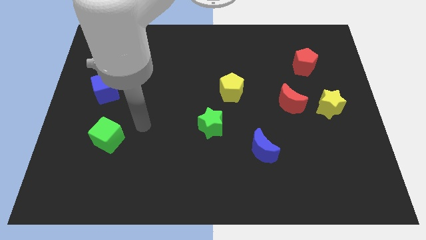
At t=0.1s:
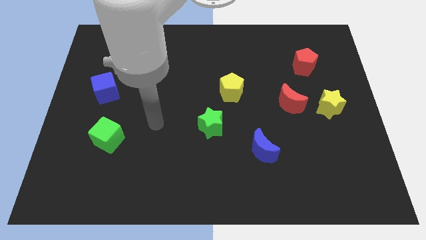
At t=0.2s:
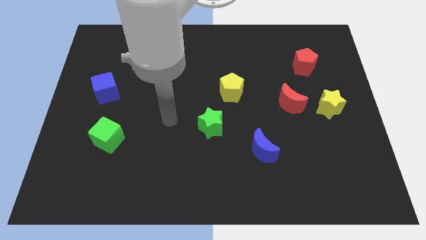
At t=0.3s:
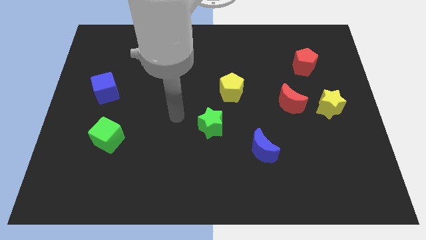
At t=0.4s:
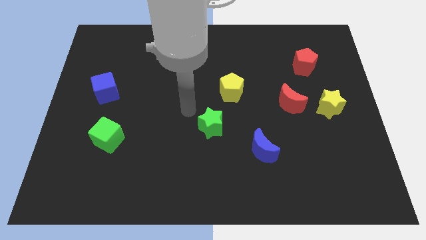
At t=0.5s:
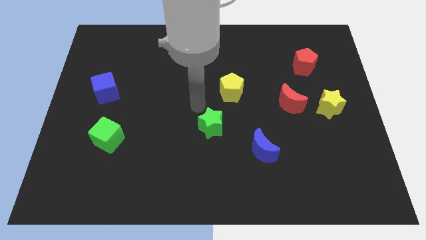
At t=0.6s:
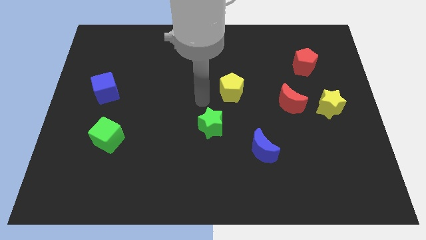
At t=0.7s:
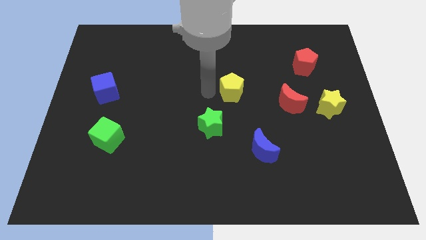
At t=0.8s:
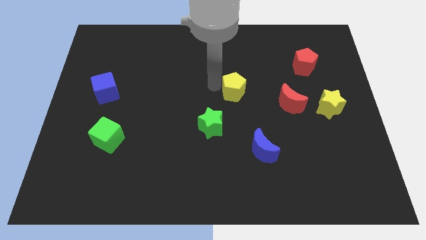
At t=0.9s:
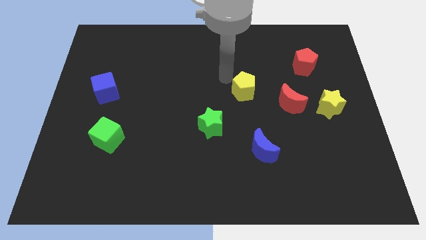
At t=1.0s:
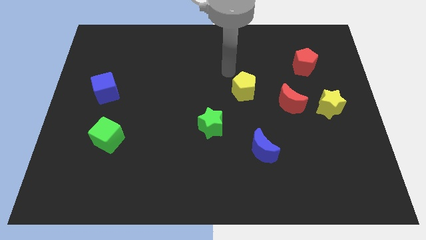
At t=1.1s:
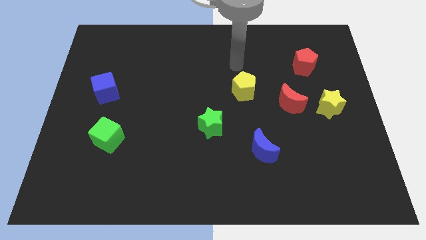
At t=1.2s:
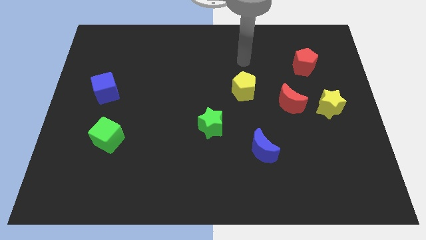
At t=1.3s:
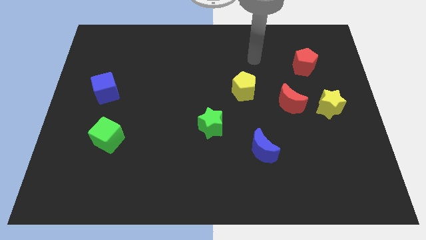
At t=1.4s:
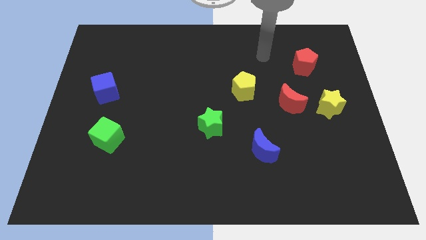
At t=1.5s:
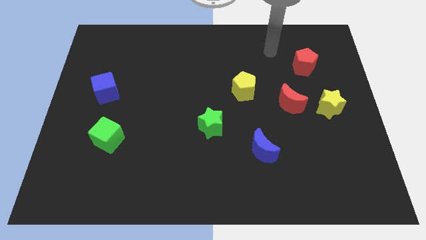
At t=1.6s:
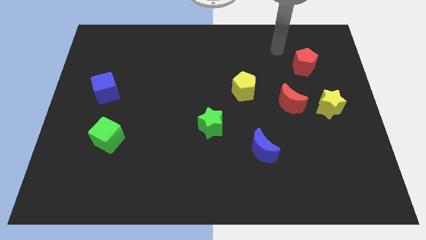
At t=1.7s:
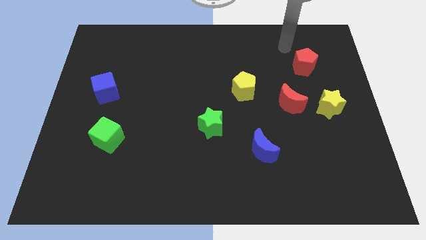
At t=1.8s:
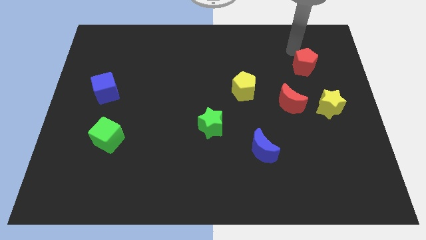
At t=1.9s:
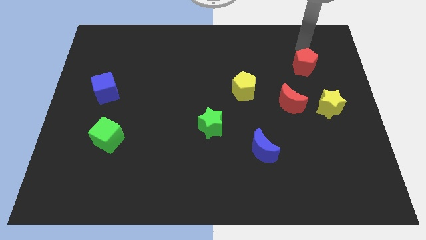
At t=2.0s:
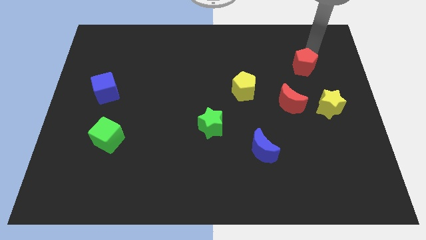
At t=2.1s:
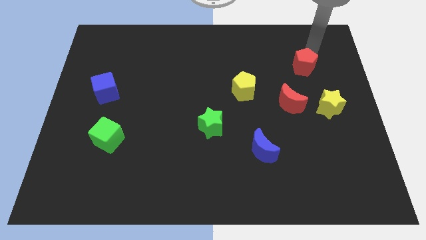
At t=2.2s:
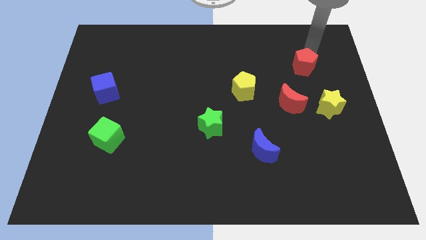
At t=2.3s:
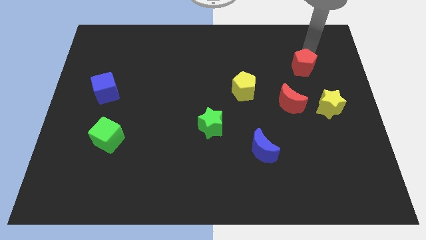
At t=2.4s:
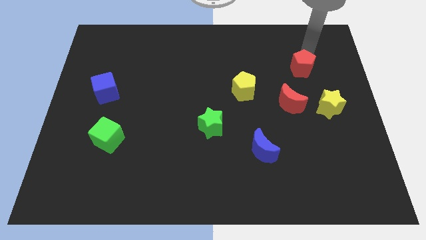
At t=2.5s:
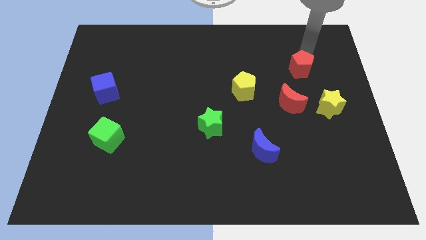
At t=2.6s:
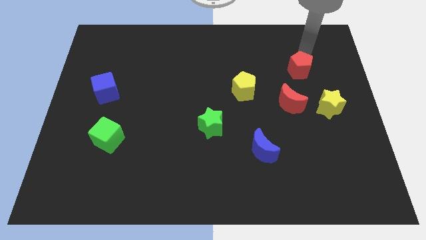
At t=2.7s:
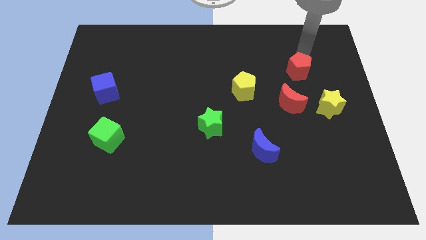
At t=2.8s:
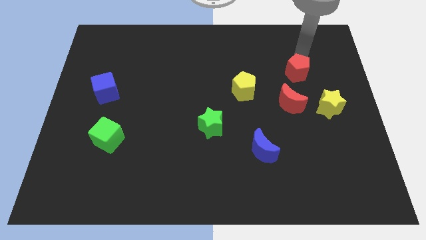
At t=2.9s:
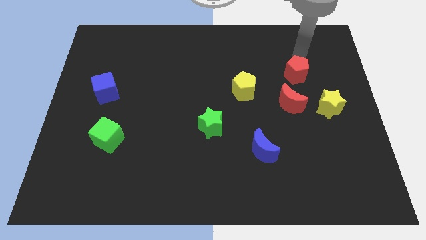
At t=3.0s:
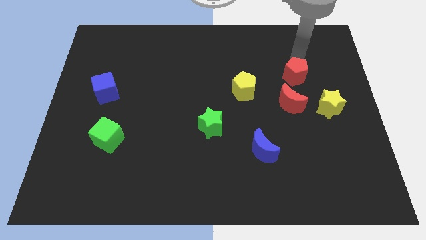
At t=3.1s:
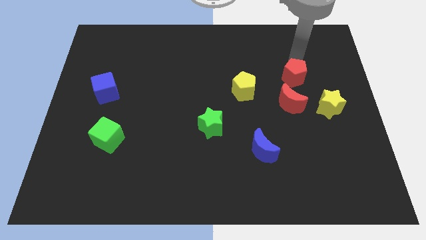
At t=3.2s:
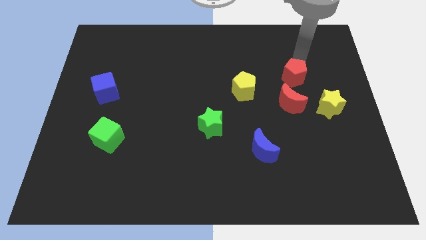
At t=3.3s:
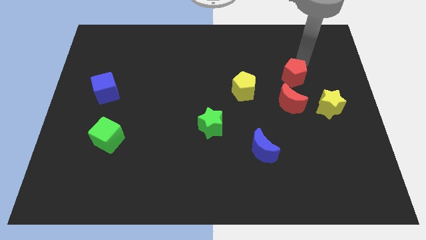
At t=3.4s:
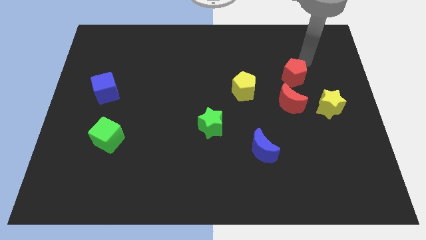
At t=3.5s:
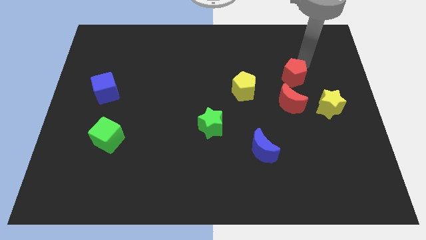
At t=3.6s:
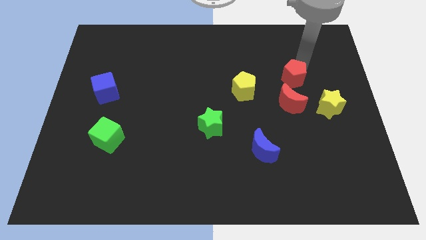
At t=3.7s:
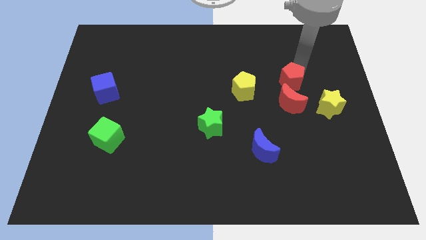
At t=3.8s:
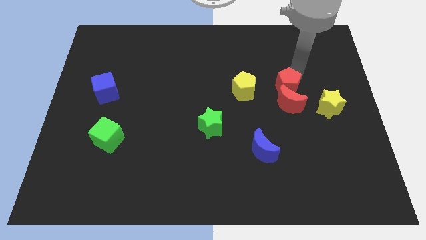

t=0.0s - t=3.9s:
slide the red pentagon a little bit down and then left

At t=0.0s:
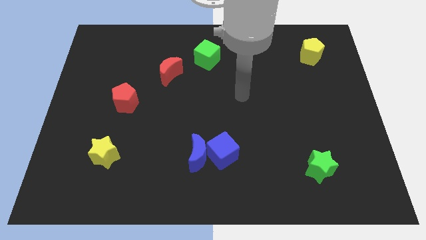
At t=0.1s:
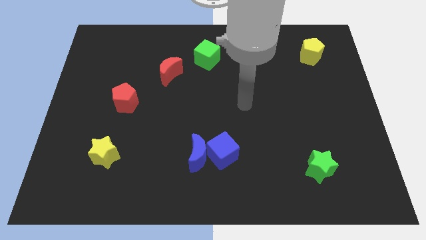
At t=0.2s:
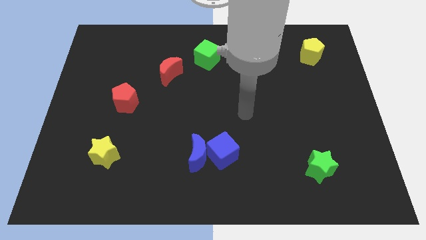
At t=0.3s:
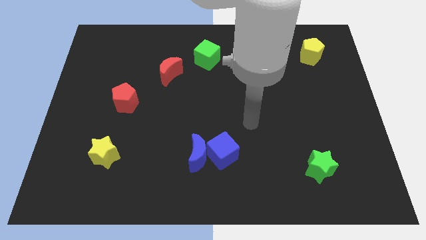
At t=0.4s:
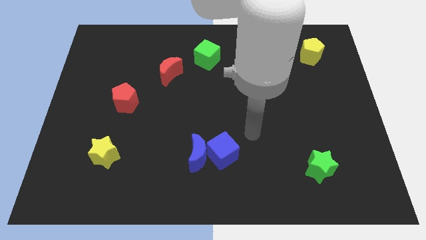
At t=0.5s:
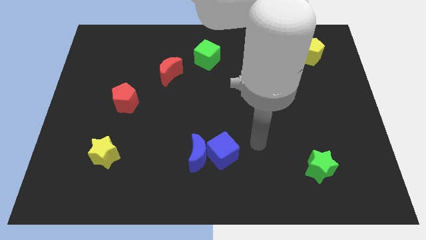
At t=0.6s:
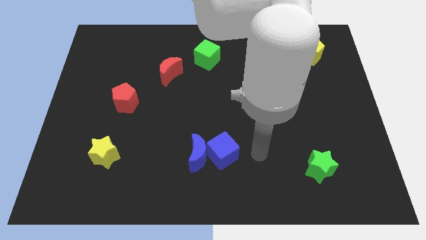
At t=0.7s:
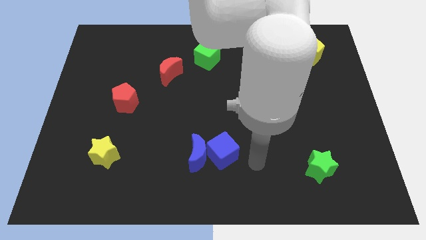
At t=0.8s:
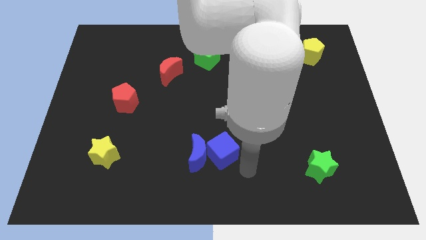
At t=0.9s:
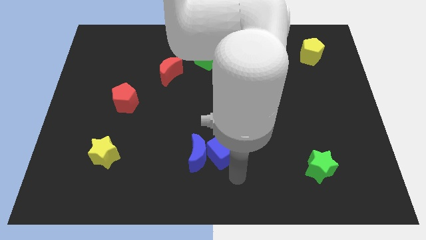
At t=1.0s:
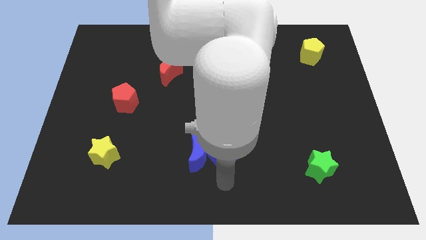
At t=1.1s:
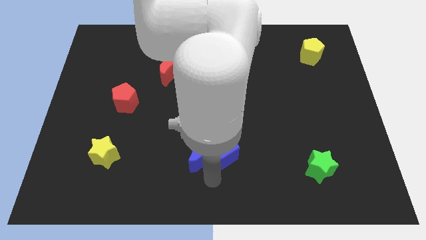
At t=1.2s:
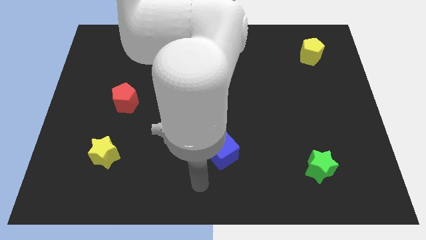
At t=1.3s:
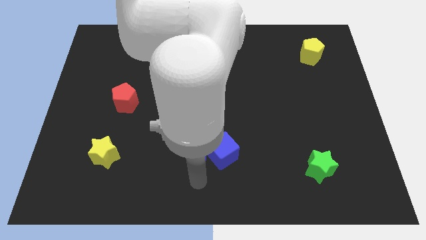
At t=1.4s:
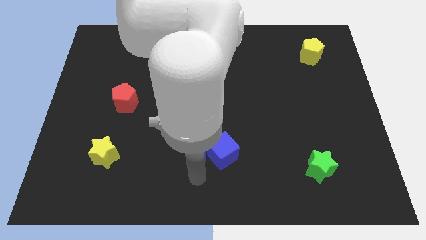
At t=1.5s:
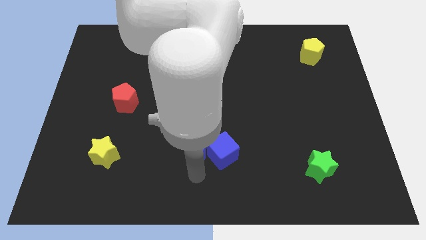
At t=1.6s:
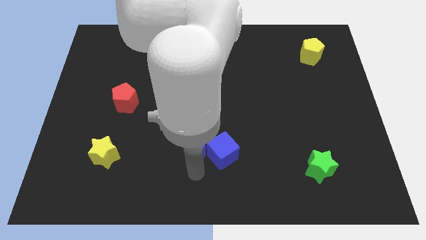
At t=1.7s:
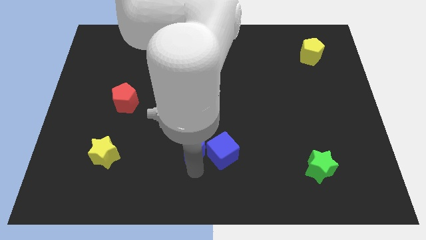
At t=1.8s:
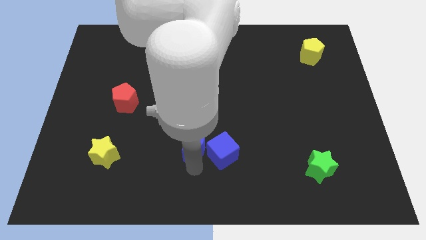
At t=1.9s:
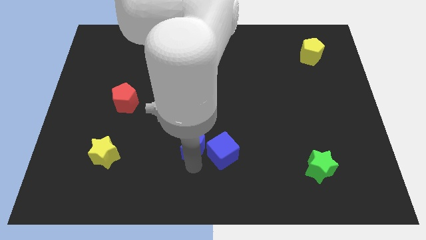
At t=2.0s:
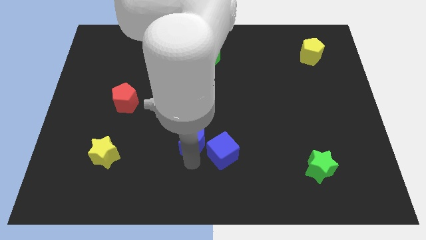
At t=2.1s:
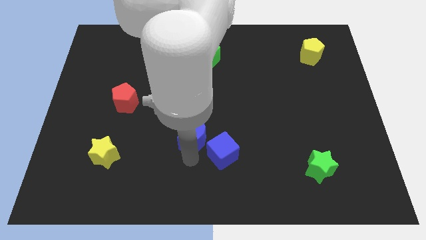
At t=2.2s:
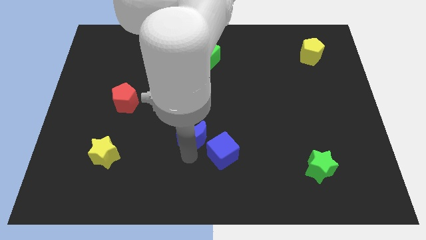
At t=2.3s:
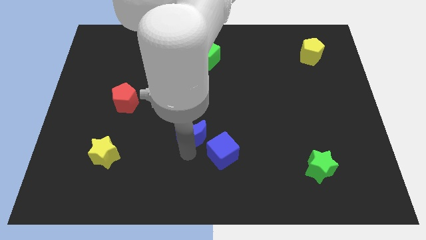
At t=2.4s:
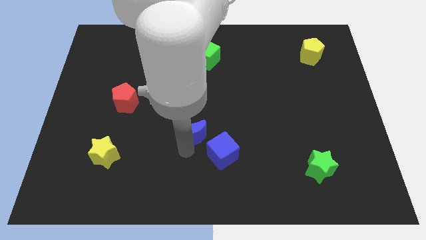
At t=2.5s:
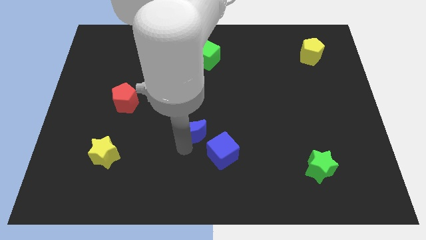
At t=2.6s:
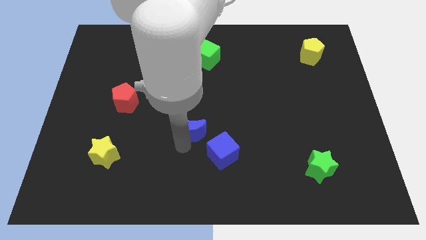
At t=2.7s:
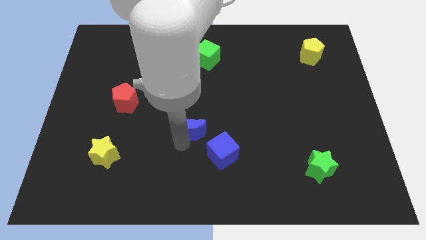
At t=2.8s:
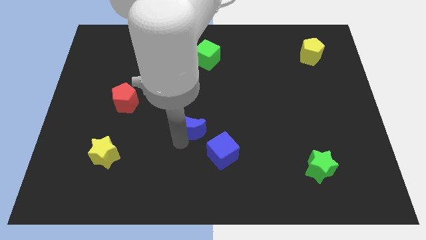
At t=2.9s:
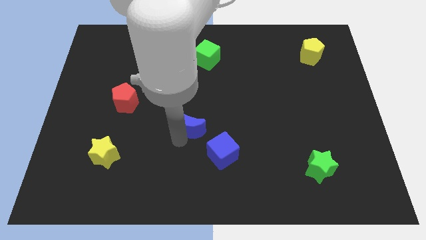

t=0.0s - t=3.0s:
slightly slide the blue moon upwards

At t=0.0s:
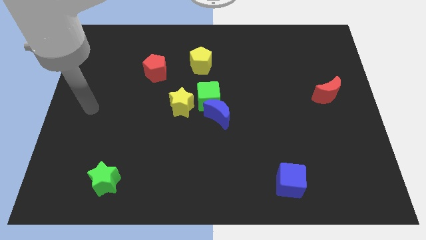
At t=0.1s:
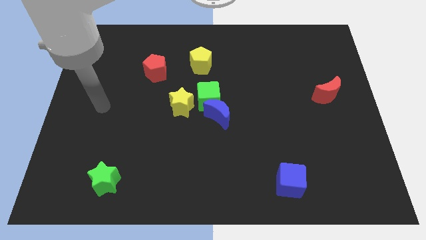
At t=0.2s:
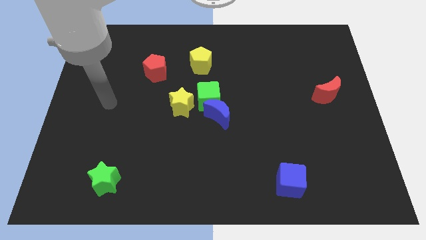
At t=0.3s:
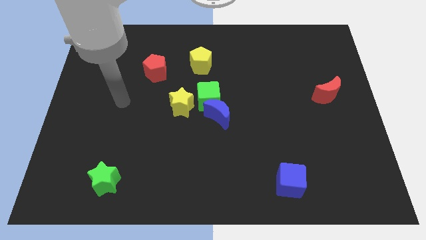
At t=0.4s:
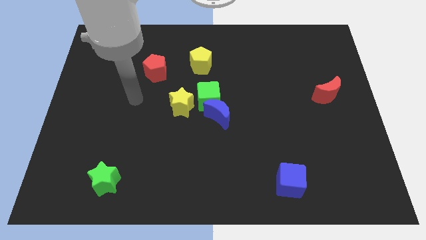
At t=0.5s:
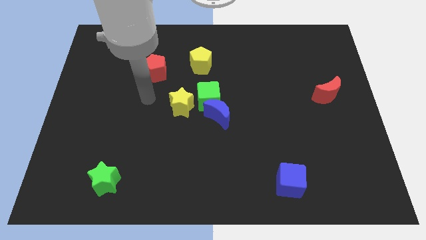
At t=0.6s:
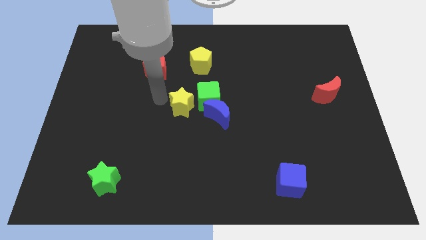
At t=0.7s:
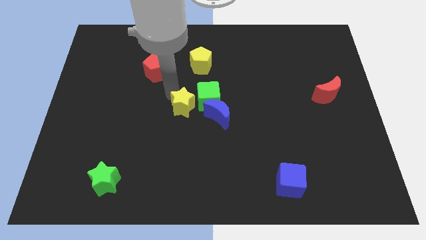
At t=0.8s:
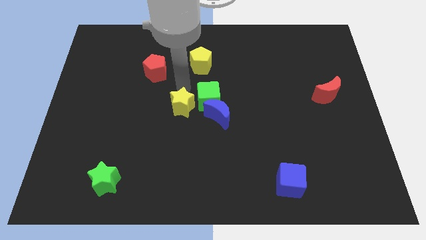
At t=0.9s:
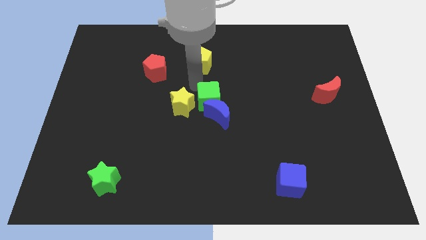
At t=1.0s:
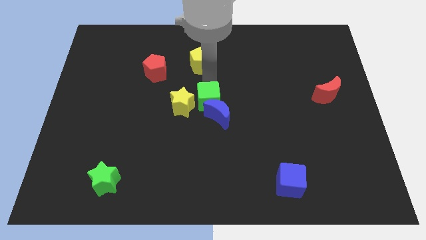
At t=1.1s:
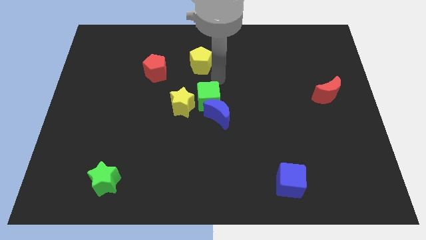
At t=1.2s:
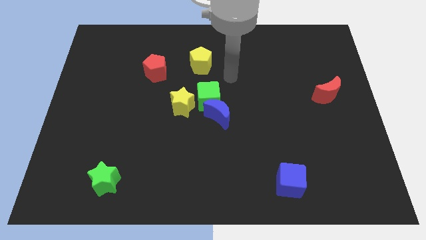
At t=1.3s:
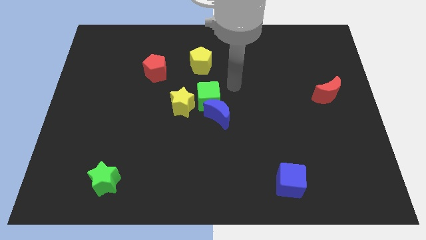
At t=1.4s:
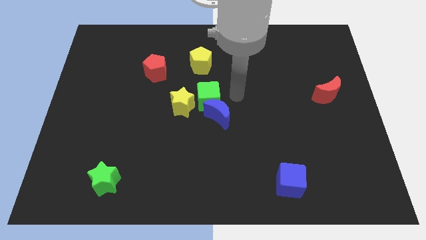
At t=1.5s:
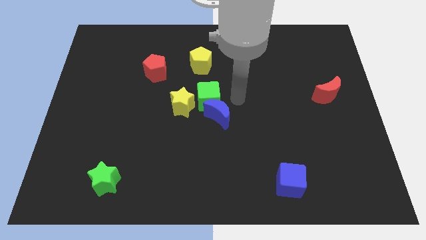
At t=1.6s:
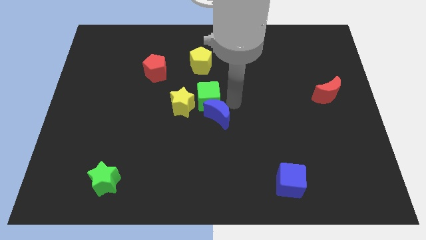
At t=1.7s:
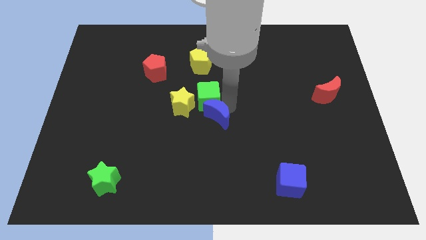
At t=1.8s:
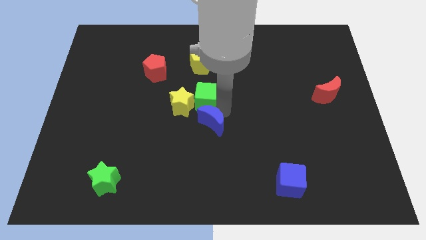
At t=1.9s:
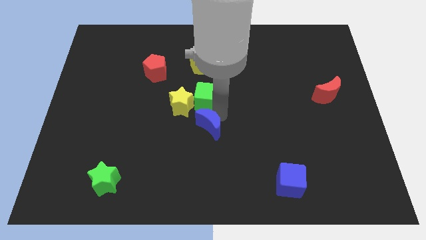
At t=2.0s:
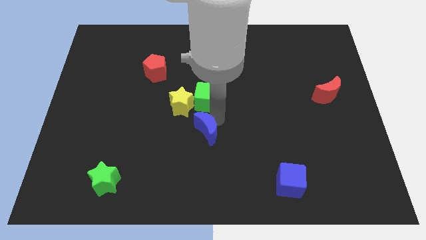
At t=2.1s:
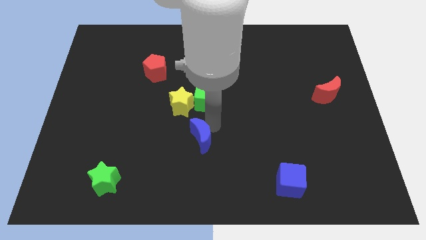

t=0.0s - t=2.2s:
move the blue moon downwards and to the left diagonally somewhat
